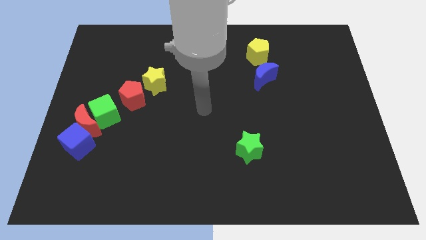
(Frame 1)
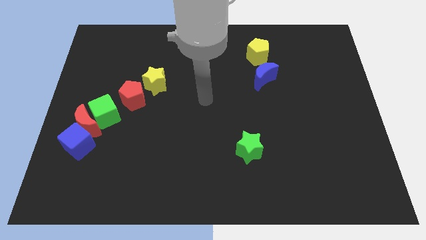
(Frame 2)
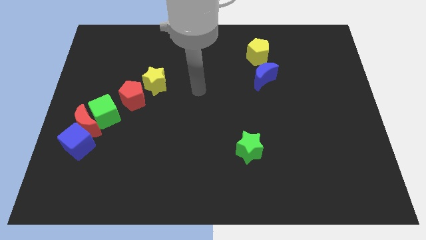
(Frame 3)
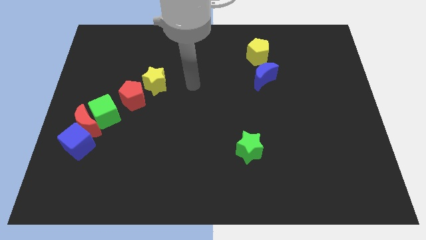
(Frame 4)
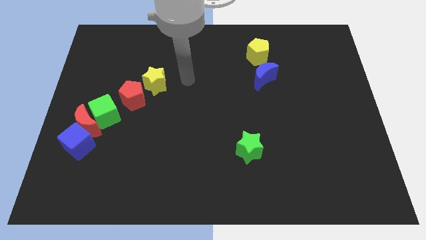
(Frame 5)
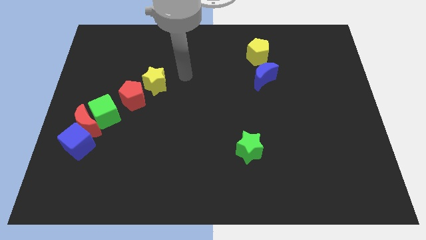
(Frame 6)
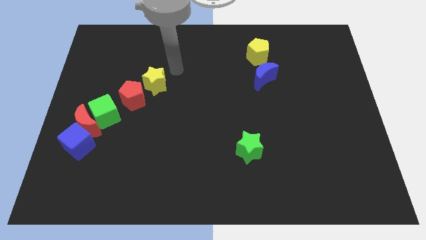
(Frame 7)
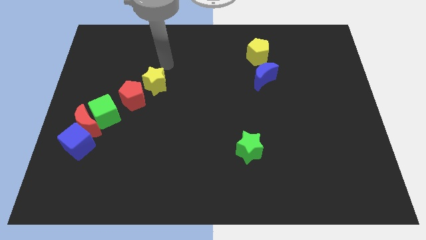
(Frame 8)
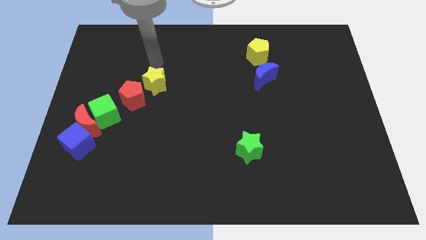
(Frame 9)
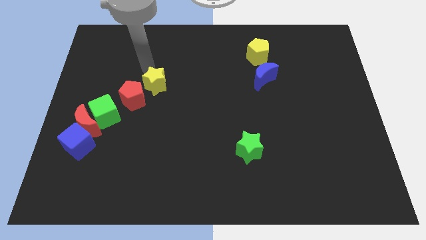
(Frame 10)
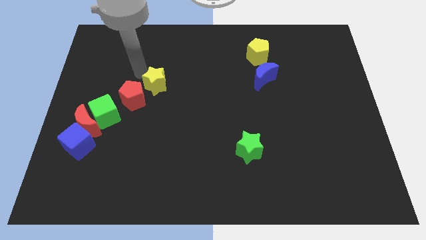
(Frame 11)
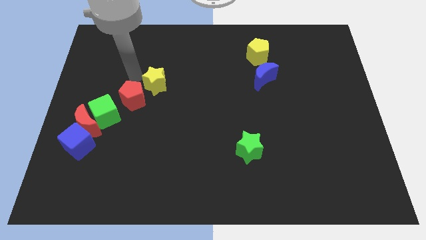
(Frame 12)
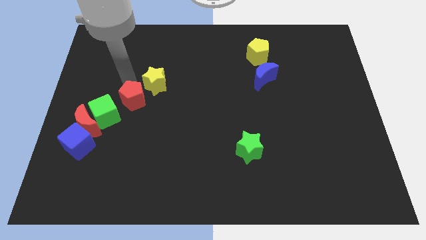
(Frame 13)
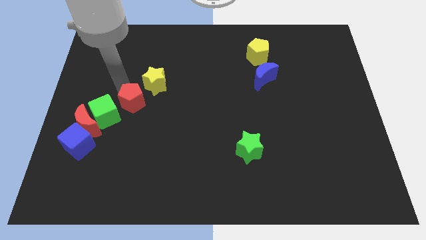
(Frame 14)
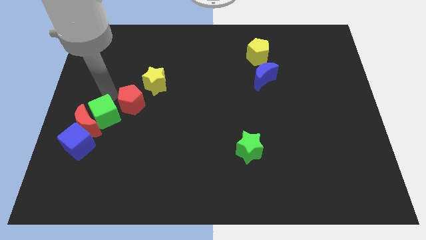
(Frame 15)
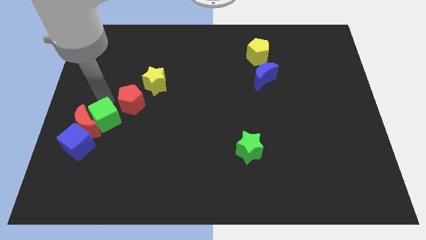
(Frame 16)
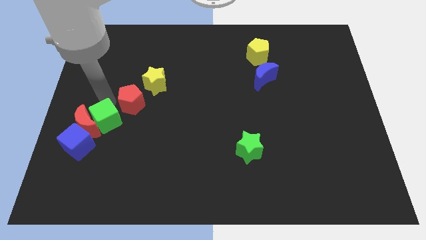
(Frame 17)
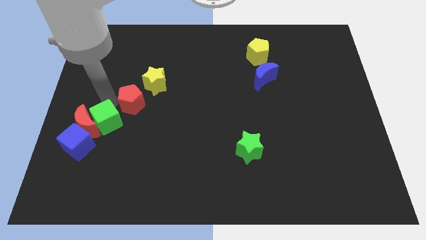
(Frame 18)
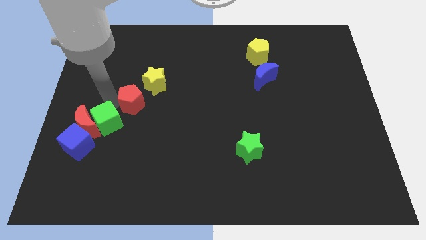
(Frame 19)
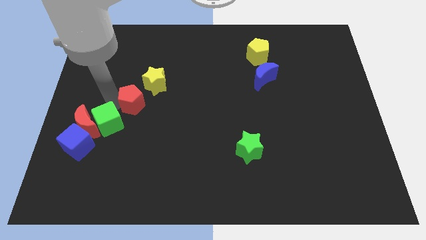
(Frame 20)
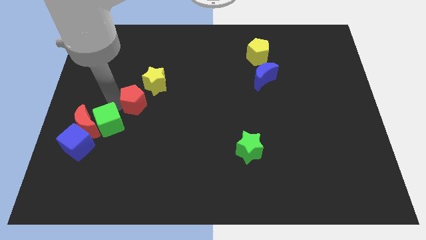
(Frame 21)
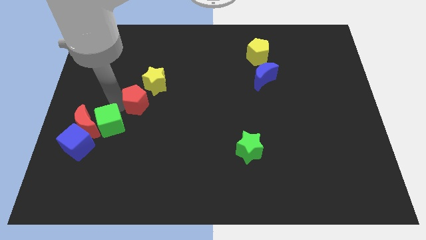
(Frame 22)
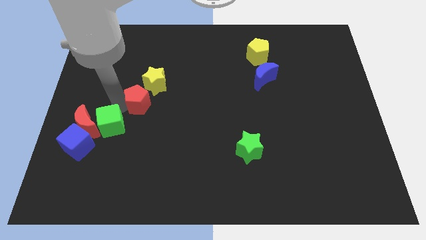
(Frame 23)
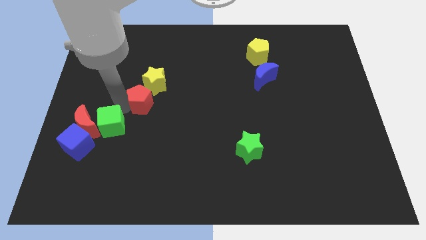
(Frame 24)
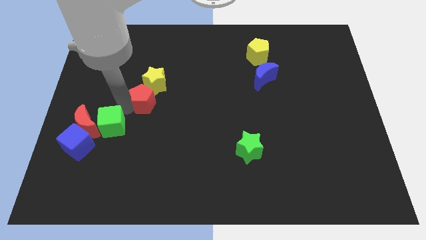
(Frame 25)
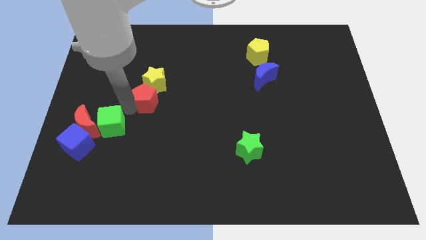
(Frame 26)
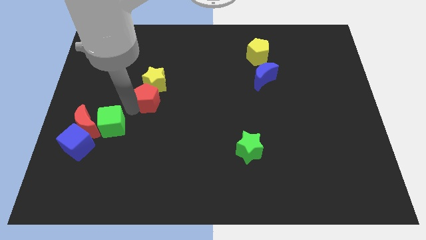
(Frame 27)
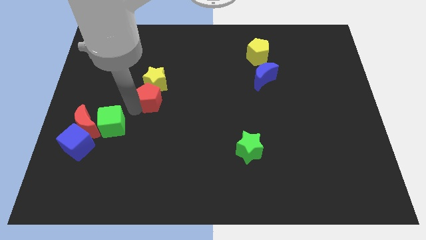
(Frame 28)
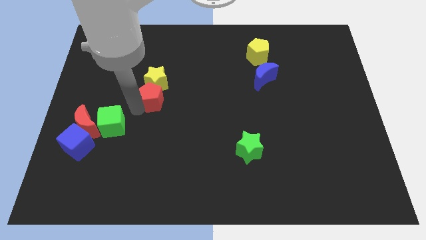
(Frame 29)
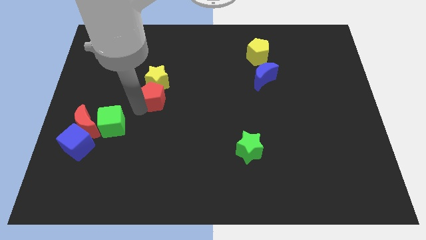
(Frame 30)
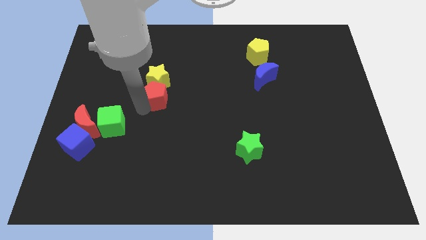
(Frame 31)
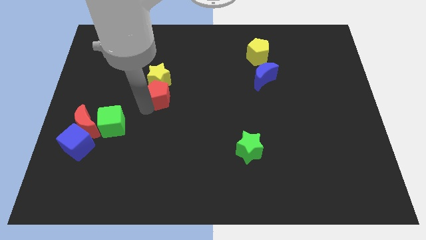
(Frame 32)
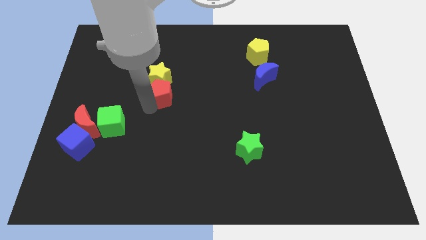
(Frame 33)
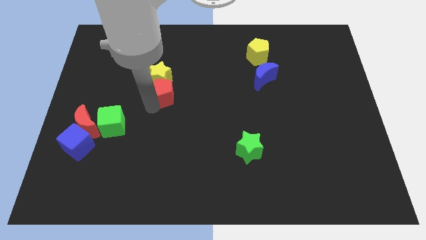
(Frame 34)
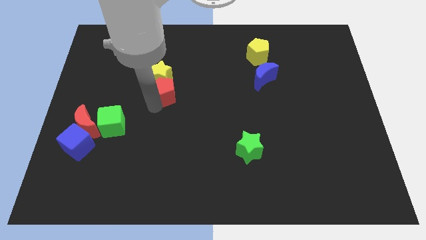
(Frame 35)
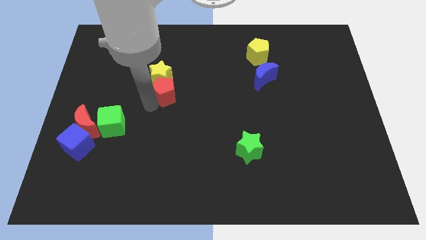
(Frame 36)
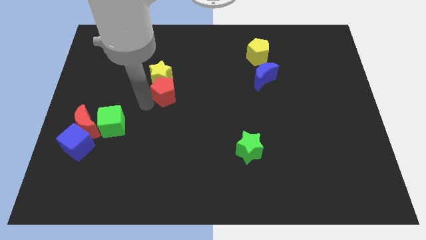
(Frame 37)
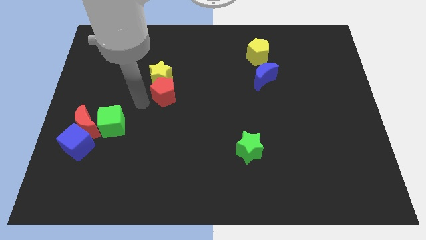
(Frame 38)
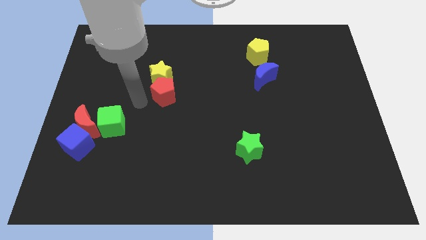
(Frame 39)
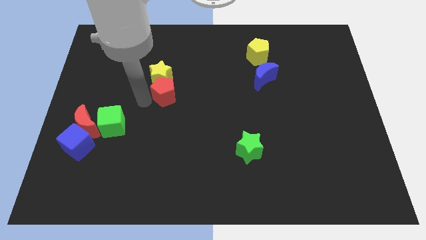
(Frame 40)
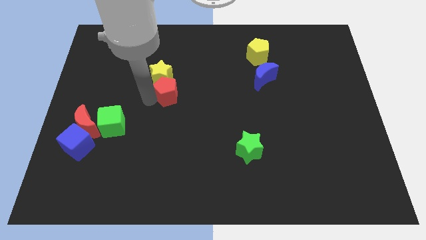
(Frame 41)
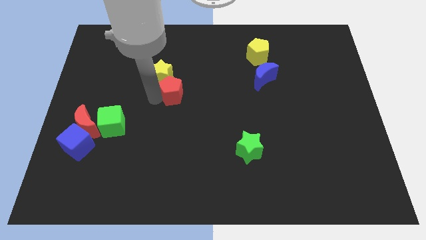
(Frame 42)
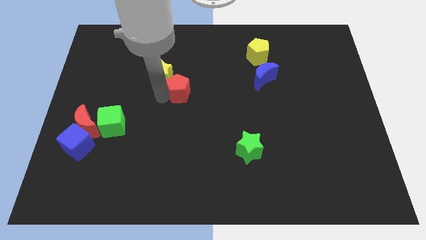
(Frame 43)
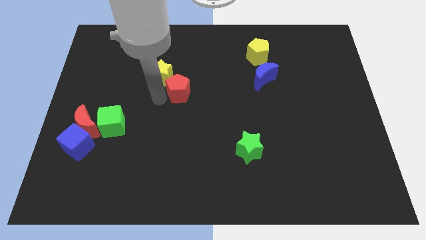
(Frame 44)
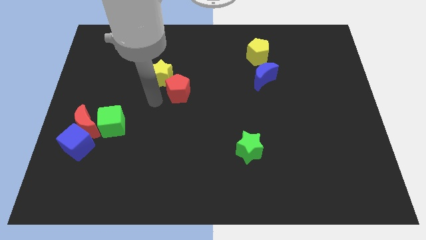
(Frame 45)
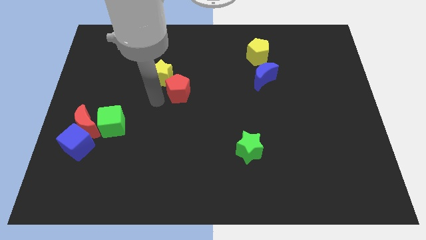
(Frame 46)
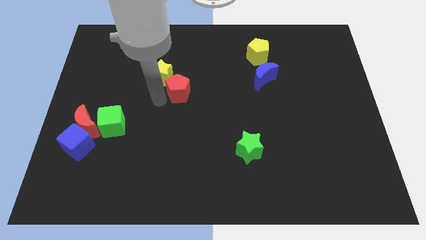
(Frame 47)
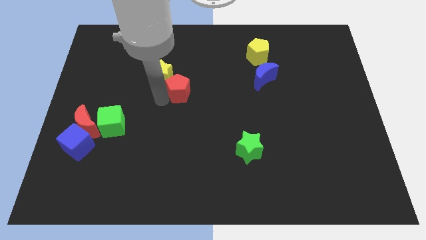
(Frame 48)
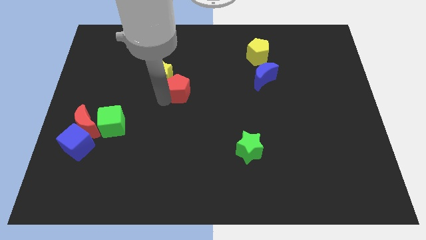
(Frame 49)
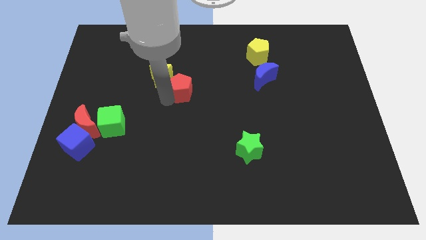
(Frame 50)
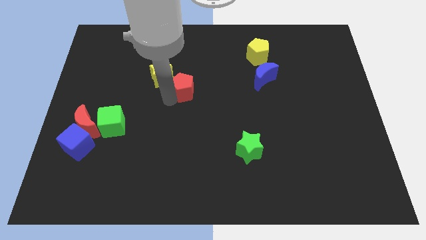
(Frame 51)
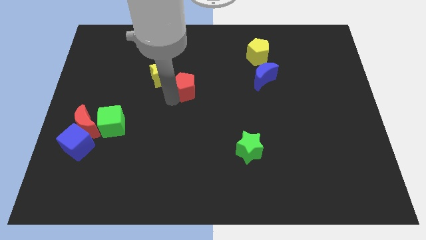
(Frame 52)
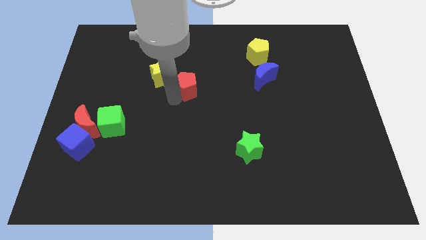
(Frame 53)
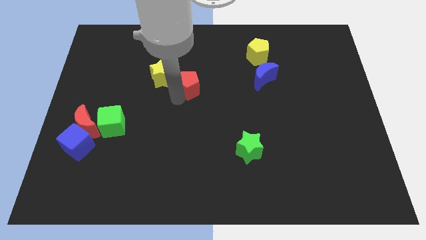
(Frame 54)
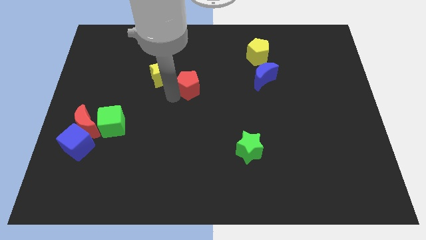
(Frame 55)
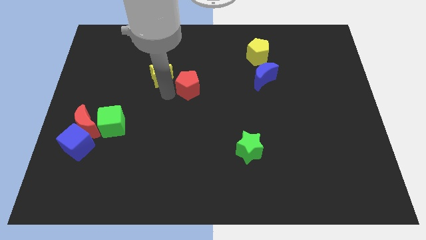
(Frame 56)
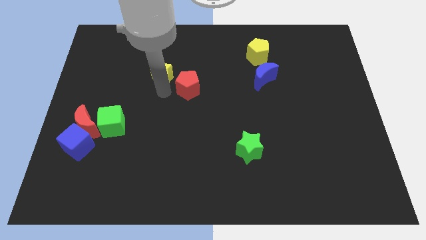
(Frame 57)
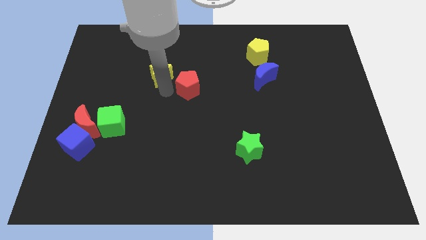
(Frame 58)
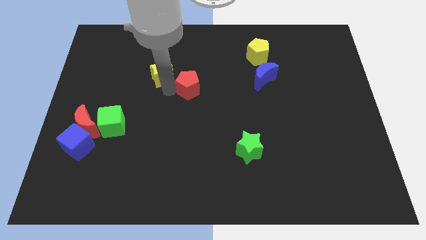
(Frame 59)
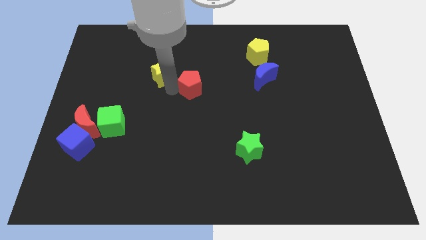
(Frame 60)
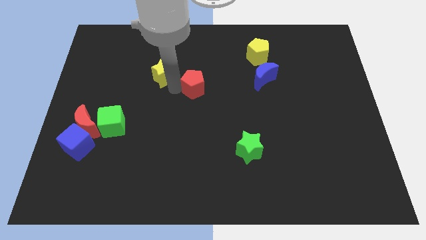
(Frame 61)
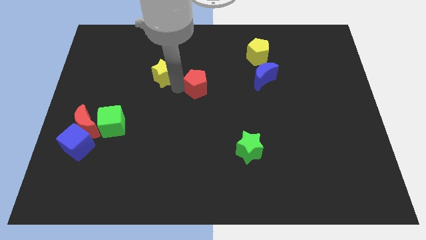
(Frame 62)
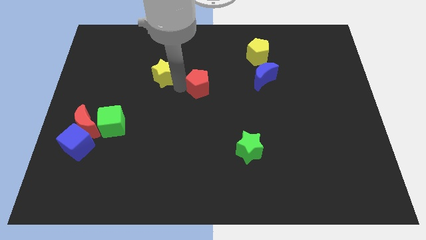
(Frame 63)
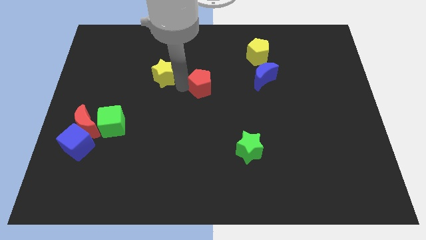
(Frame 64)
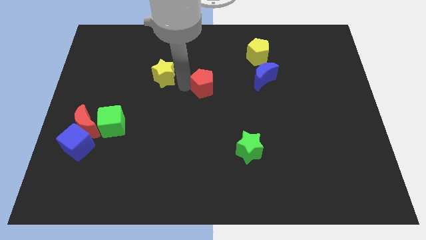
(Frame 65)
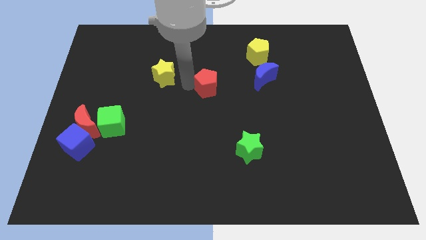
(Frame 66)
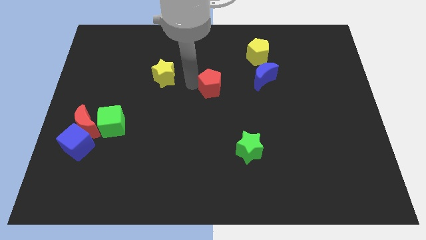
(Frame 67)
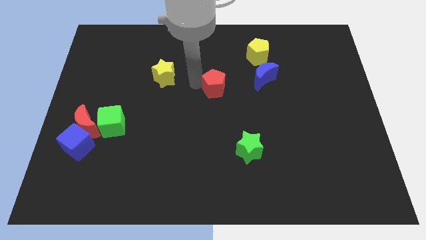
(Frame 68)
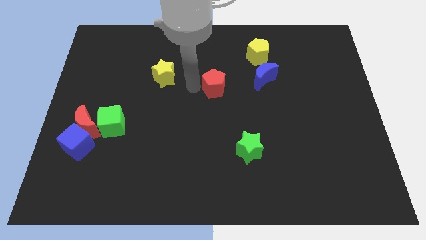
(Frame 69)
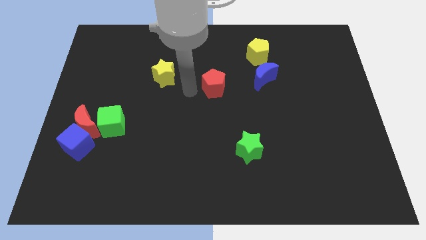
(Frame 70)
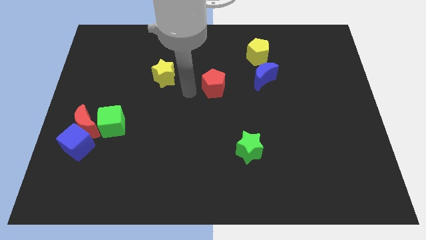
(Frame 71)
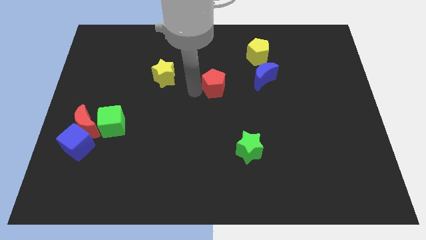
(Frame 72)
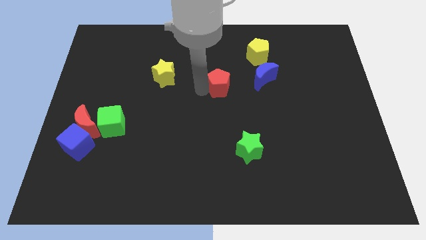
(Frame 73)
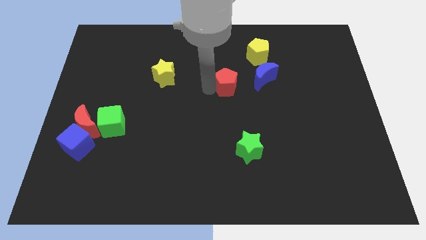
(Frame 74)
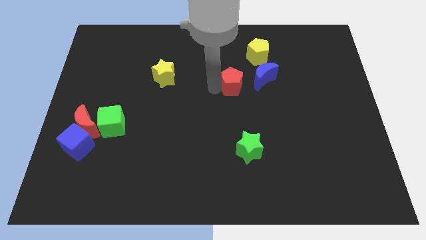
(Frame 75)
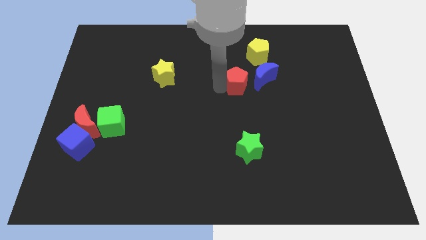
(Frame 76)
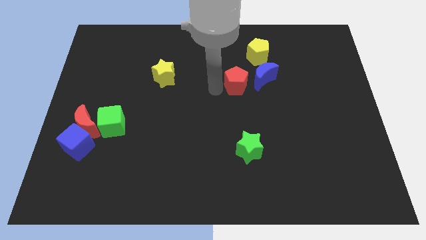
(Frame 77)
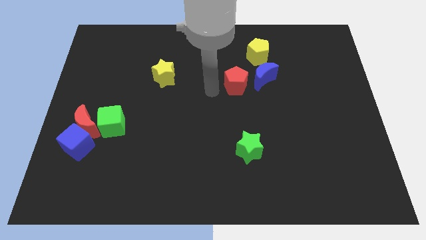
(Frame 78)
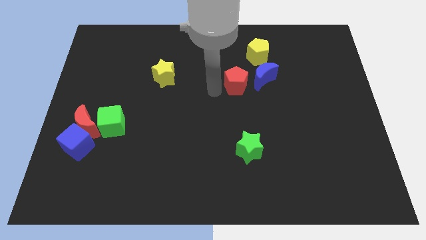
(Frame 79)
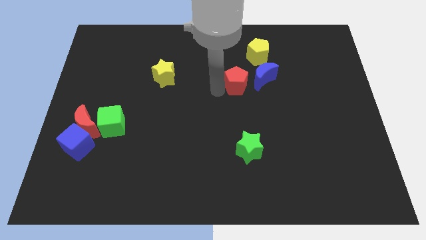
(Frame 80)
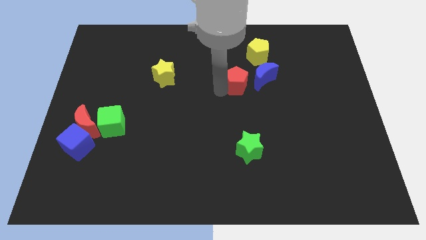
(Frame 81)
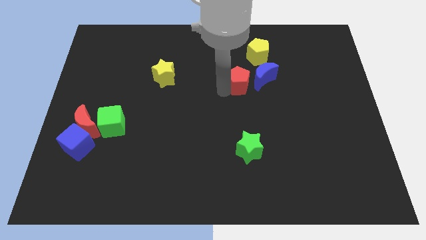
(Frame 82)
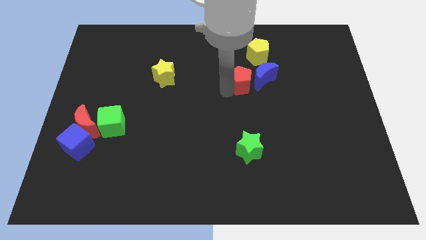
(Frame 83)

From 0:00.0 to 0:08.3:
slide the red pentagon to the blue moon
